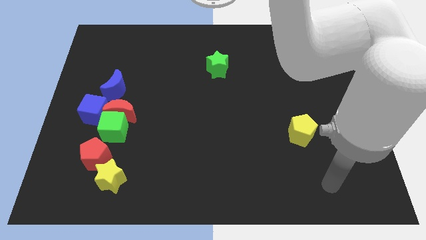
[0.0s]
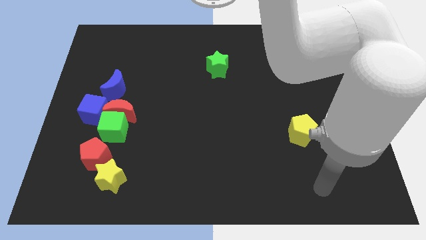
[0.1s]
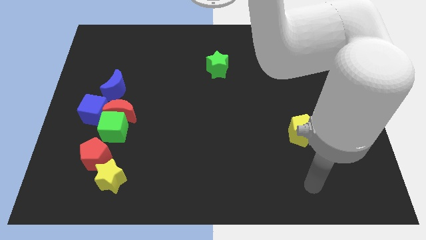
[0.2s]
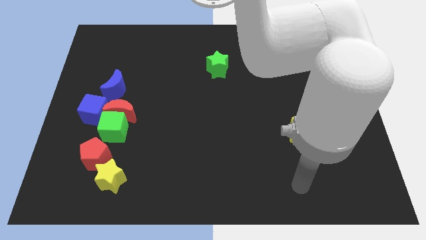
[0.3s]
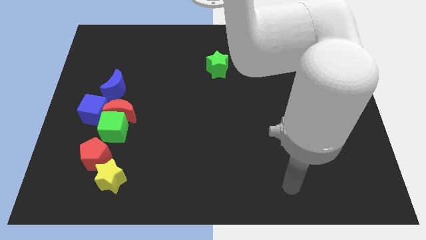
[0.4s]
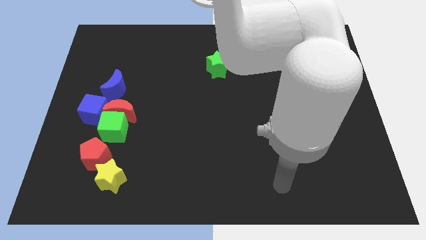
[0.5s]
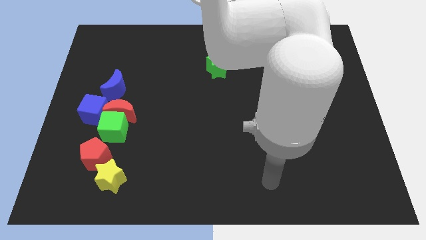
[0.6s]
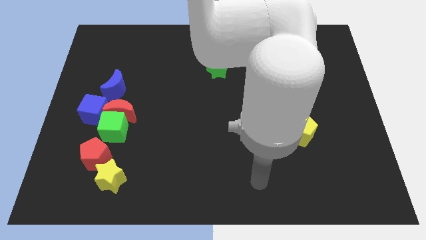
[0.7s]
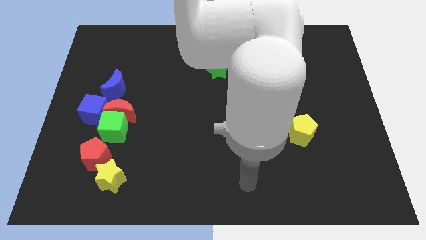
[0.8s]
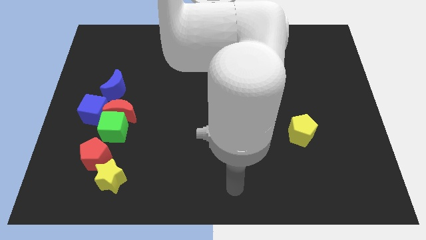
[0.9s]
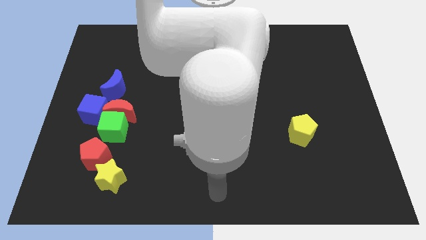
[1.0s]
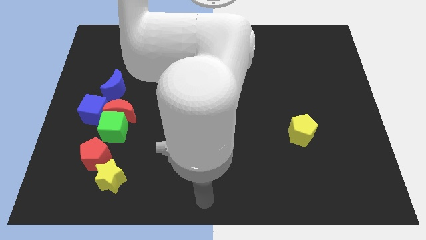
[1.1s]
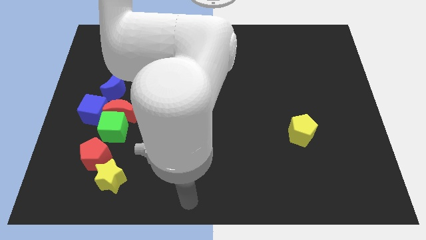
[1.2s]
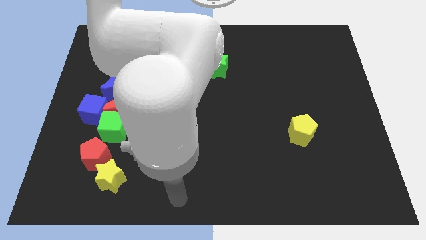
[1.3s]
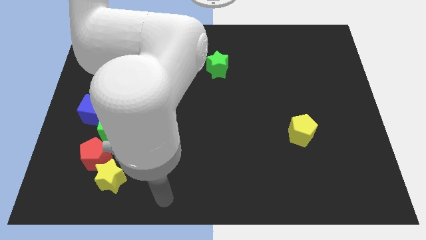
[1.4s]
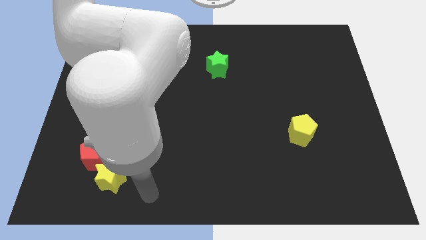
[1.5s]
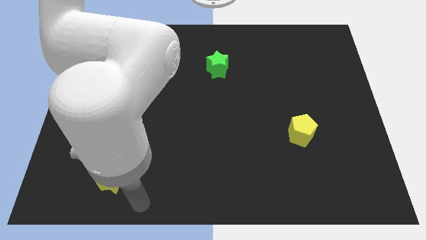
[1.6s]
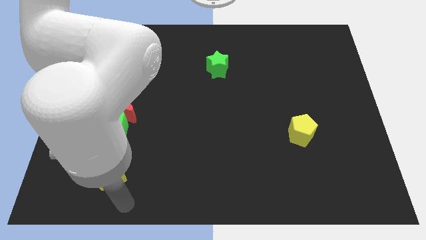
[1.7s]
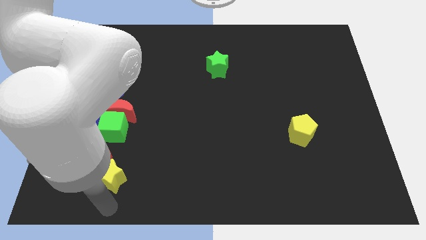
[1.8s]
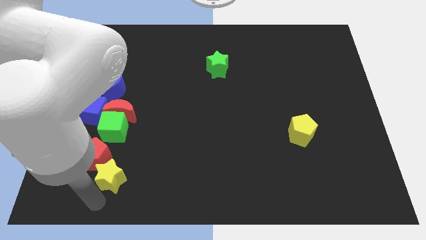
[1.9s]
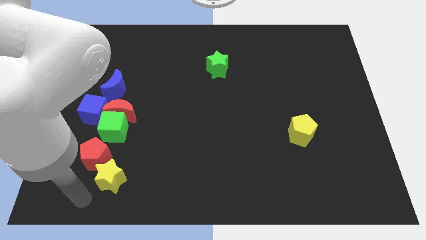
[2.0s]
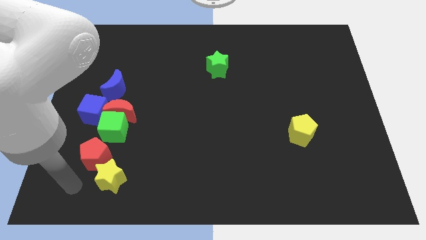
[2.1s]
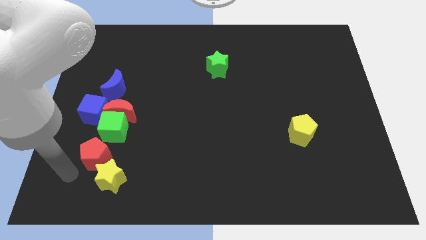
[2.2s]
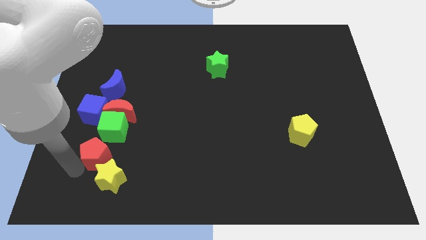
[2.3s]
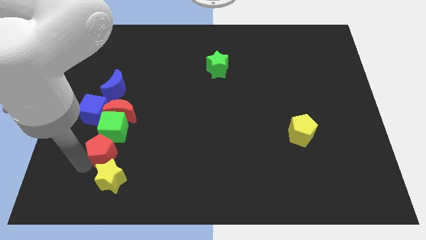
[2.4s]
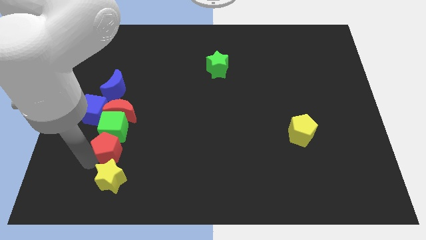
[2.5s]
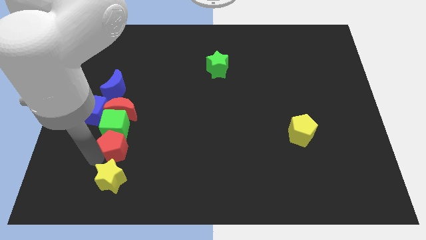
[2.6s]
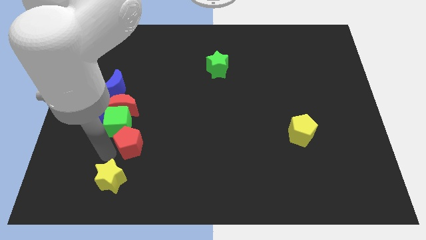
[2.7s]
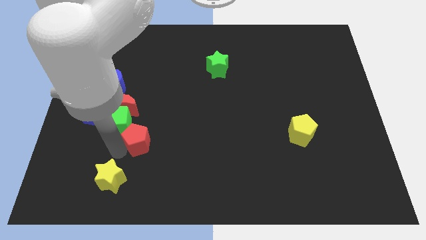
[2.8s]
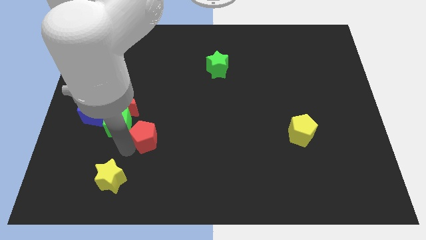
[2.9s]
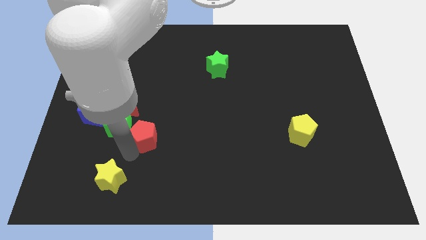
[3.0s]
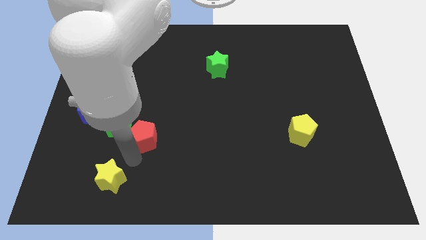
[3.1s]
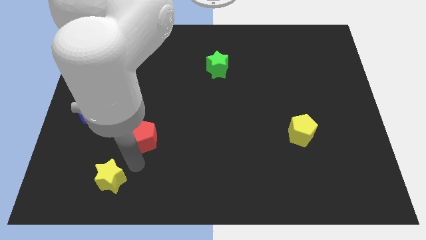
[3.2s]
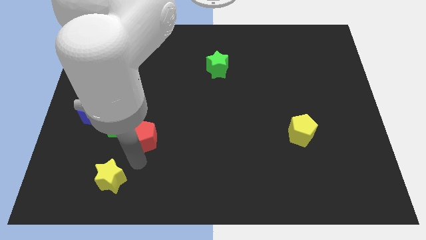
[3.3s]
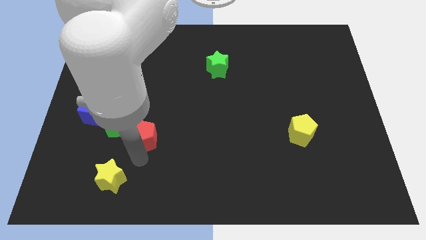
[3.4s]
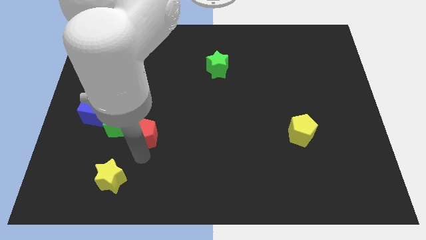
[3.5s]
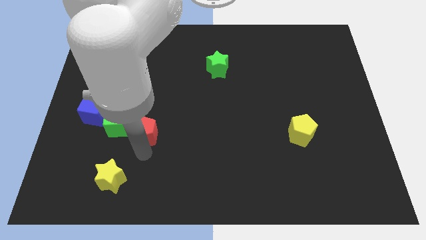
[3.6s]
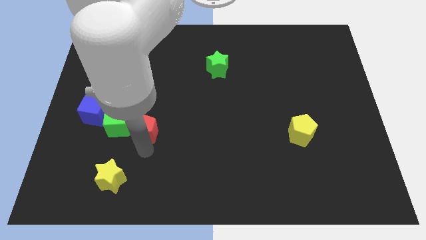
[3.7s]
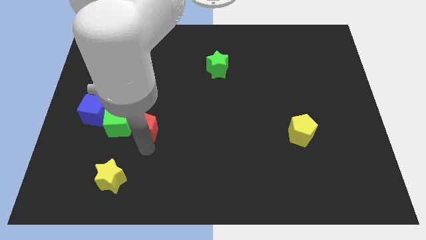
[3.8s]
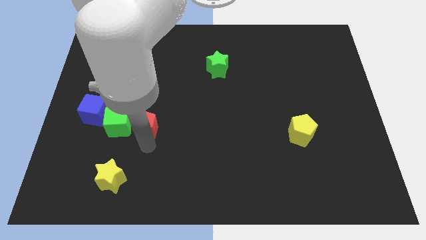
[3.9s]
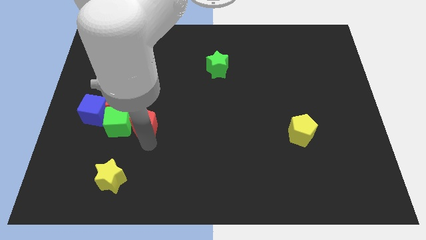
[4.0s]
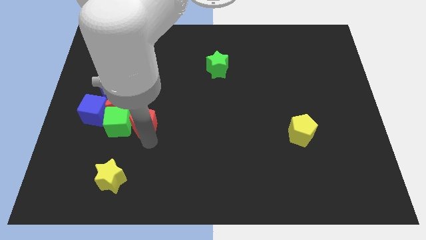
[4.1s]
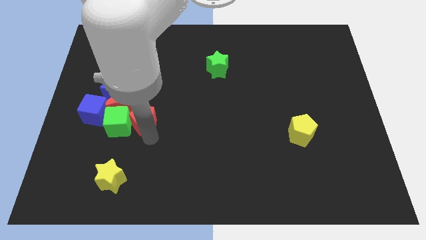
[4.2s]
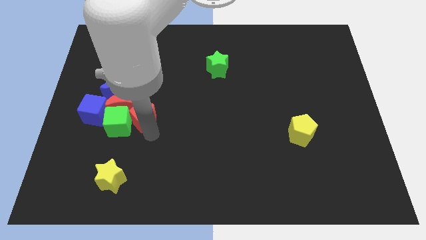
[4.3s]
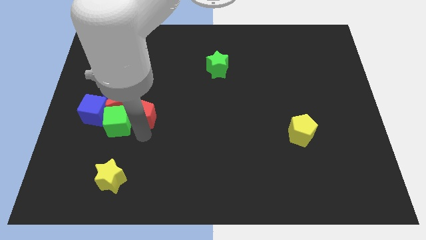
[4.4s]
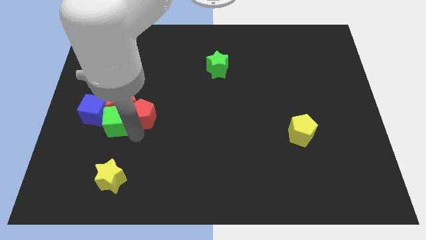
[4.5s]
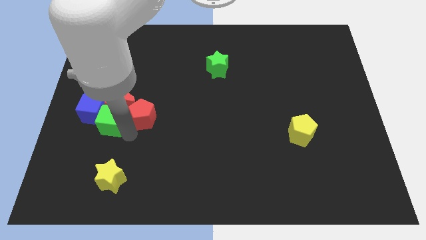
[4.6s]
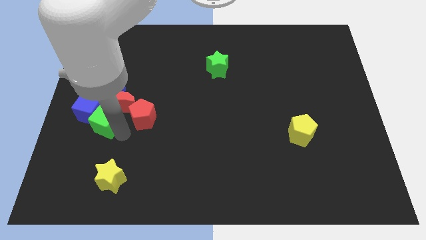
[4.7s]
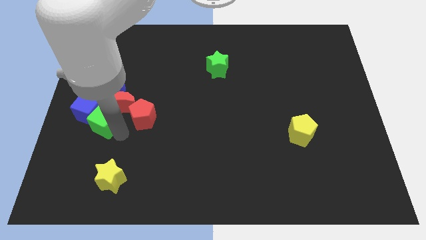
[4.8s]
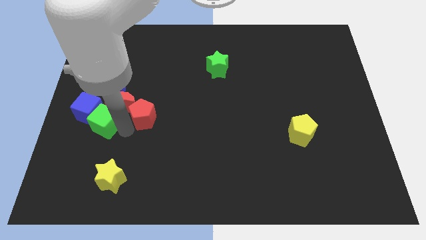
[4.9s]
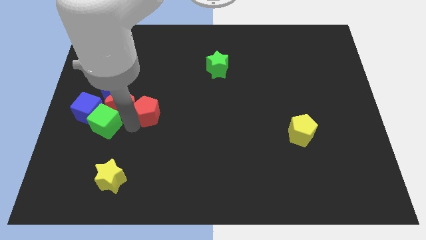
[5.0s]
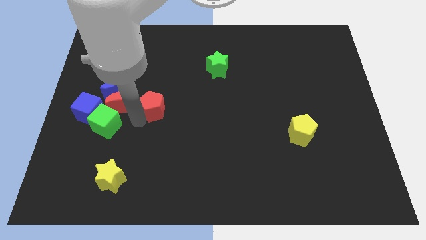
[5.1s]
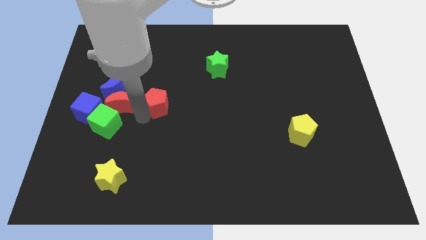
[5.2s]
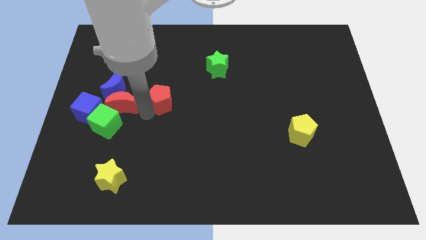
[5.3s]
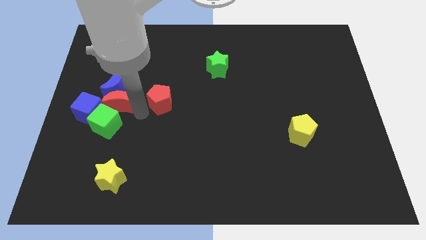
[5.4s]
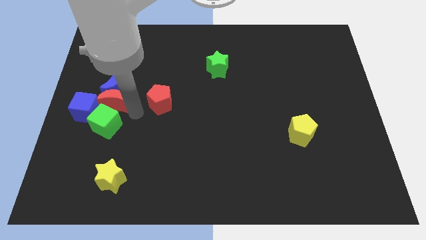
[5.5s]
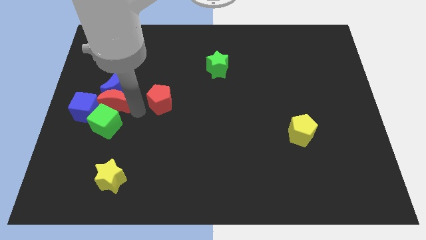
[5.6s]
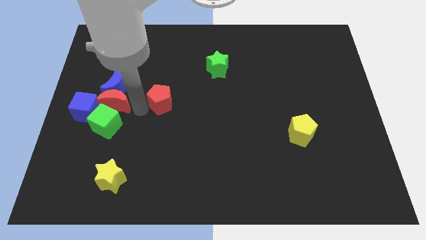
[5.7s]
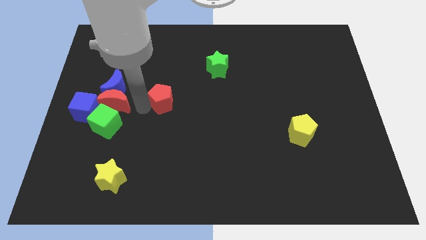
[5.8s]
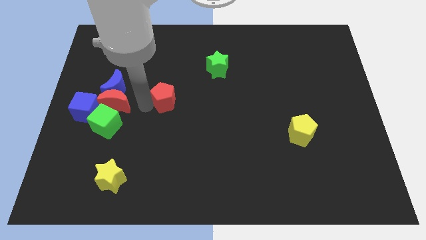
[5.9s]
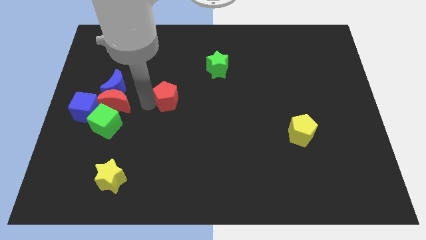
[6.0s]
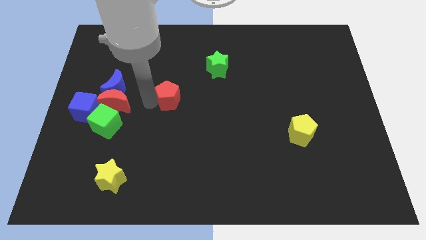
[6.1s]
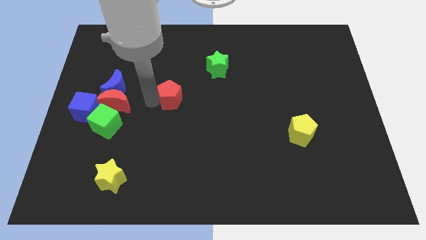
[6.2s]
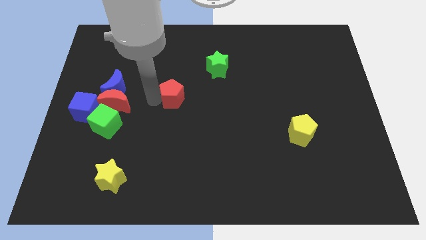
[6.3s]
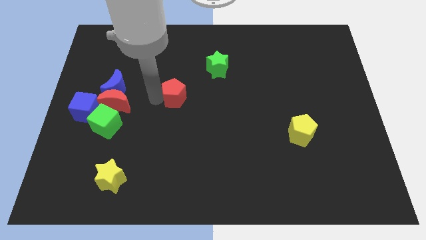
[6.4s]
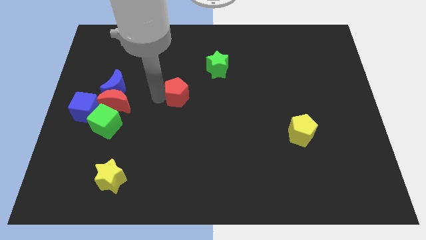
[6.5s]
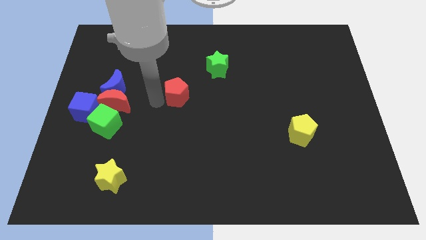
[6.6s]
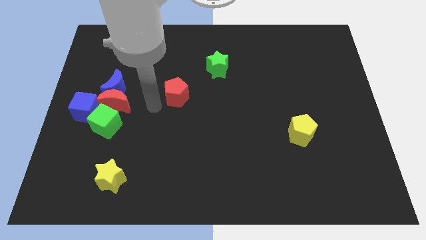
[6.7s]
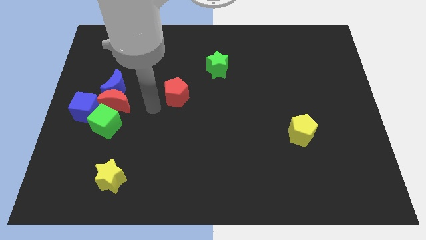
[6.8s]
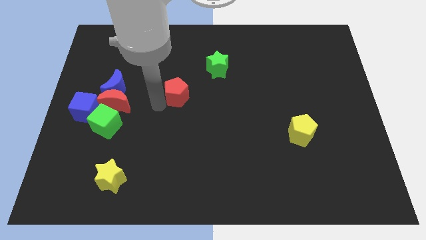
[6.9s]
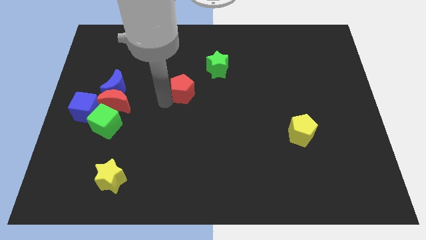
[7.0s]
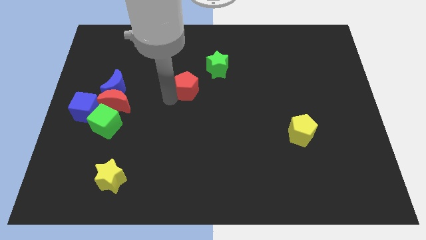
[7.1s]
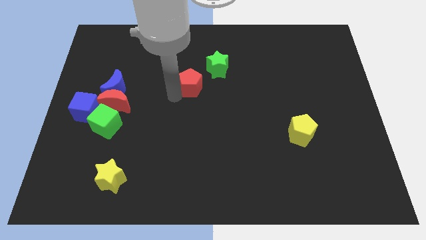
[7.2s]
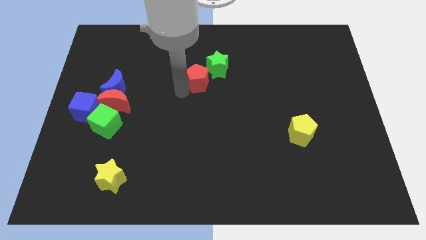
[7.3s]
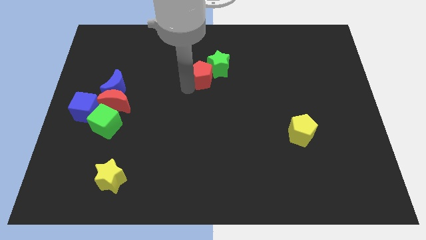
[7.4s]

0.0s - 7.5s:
slide the red pentagon next to the green star
